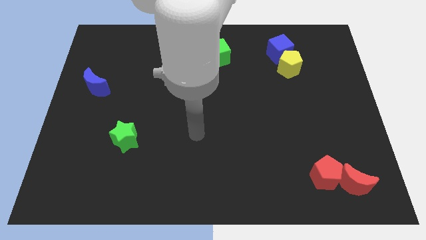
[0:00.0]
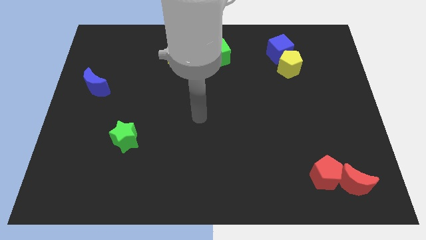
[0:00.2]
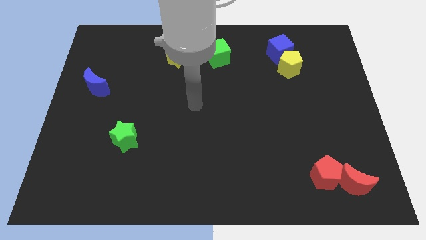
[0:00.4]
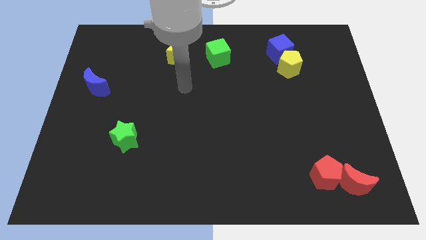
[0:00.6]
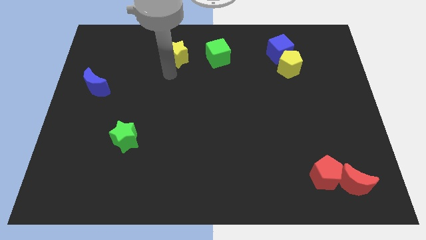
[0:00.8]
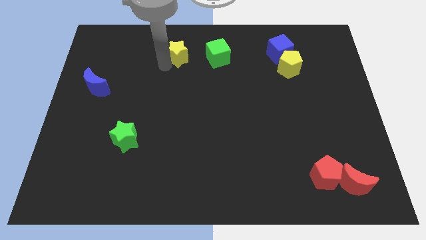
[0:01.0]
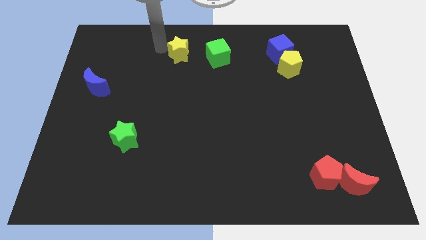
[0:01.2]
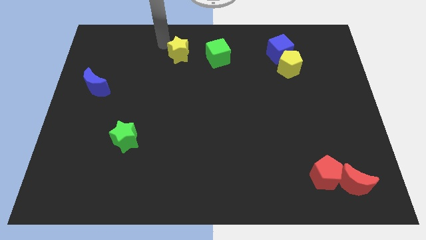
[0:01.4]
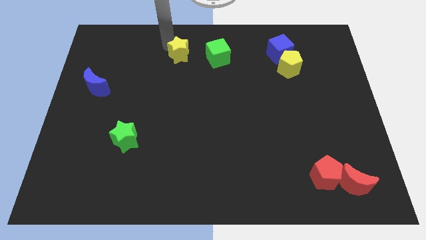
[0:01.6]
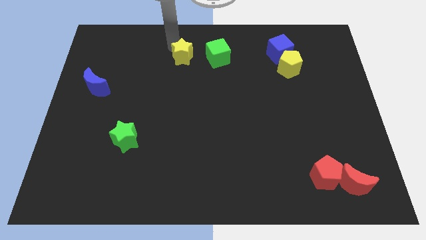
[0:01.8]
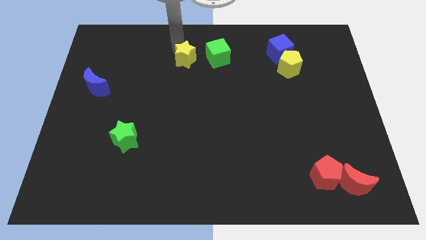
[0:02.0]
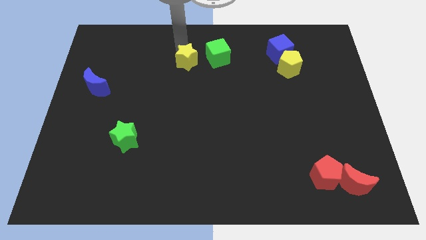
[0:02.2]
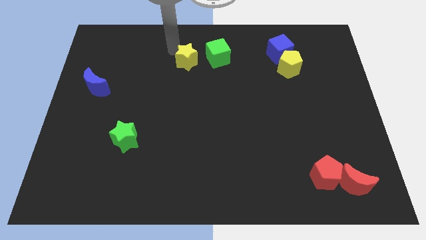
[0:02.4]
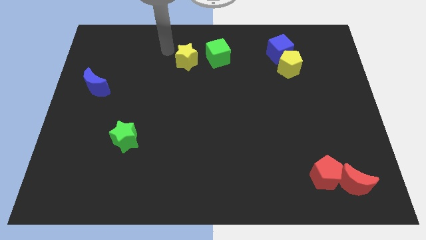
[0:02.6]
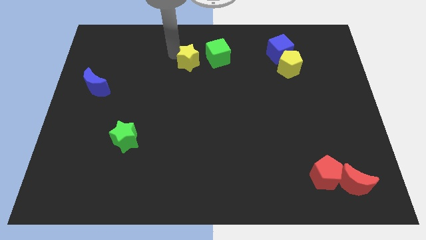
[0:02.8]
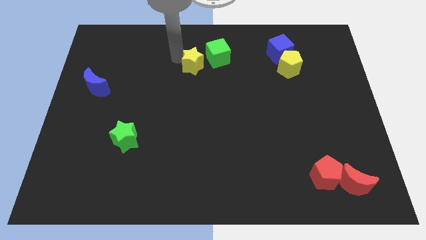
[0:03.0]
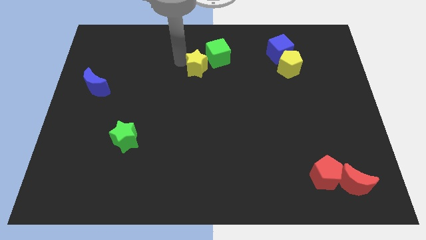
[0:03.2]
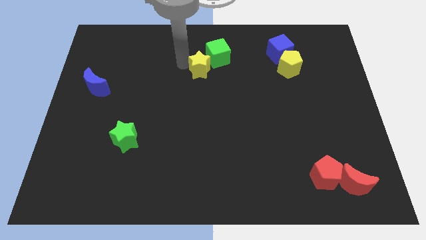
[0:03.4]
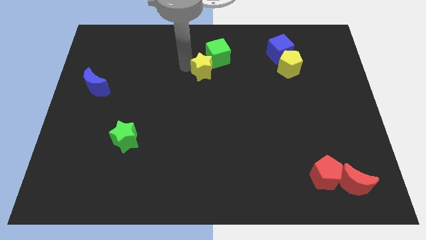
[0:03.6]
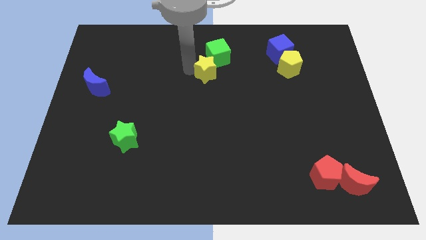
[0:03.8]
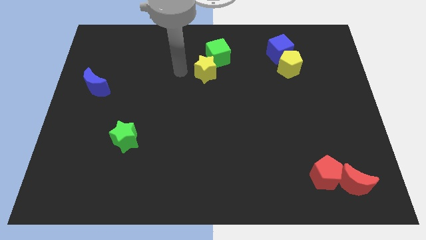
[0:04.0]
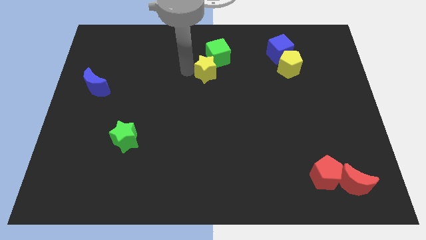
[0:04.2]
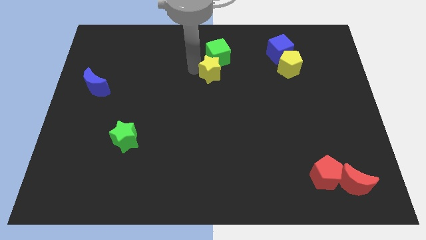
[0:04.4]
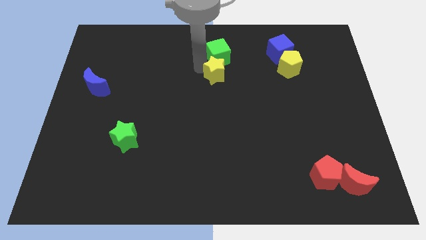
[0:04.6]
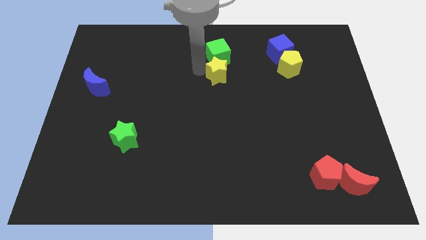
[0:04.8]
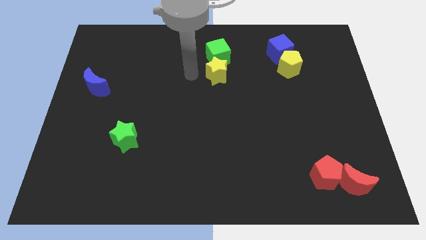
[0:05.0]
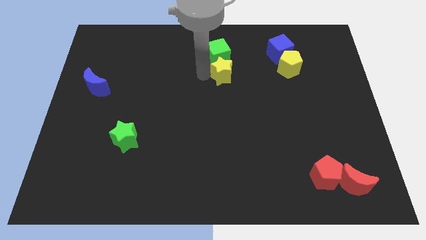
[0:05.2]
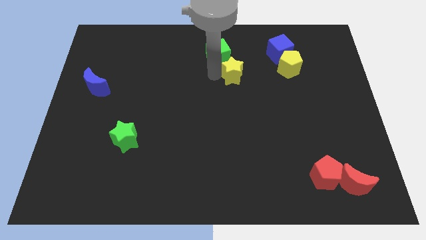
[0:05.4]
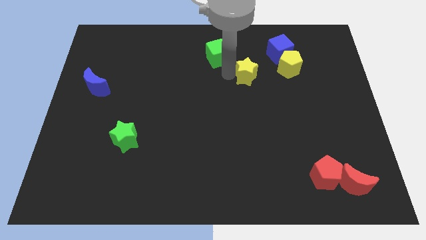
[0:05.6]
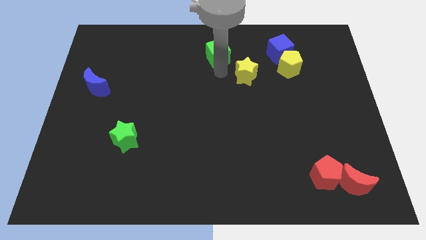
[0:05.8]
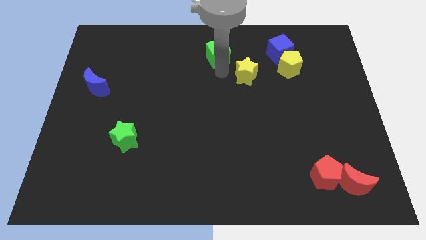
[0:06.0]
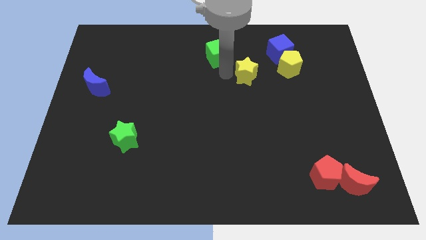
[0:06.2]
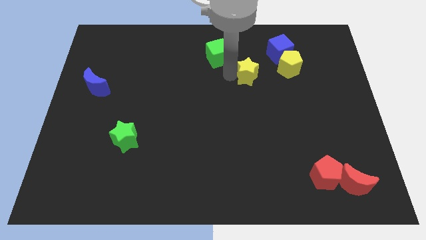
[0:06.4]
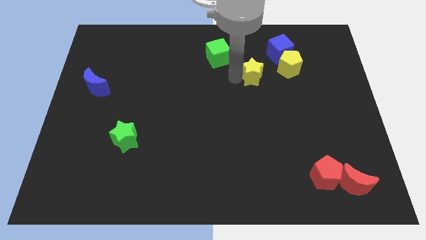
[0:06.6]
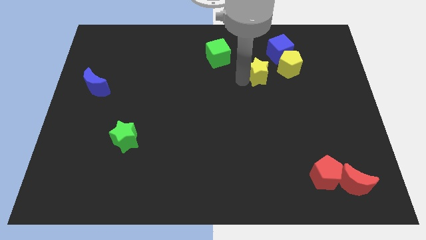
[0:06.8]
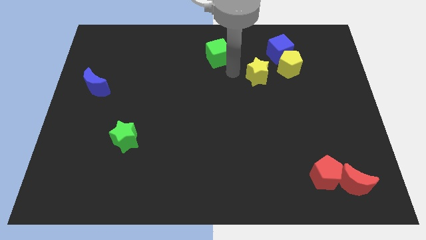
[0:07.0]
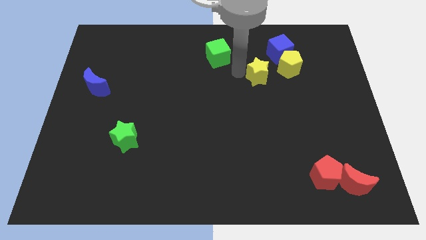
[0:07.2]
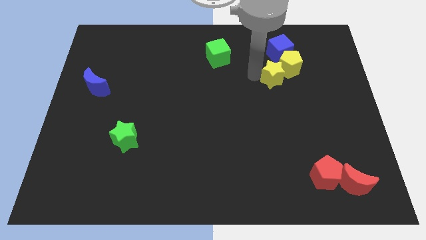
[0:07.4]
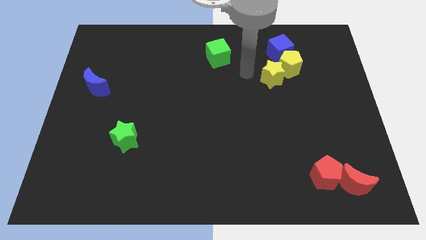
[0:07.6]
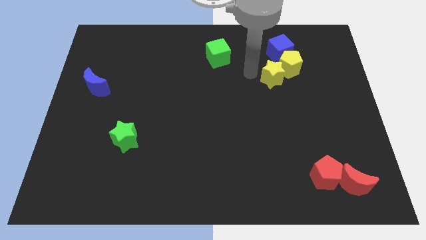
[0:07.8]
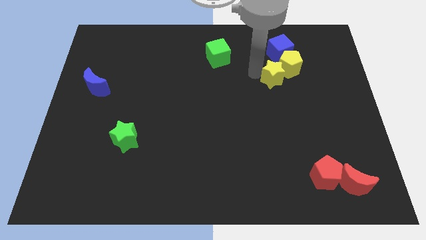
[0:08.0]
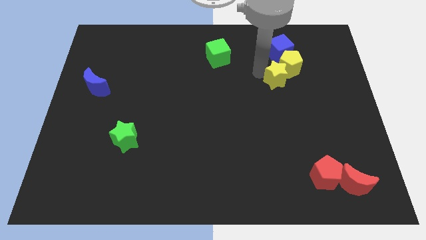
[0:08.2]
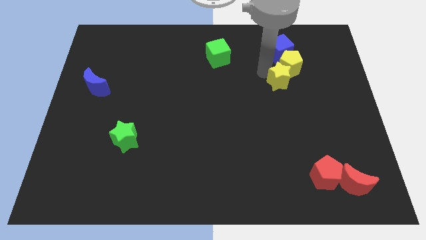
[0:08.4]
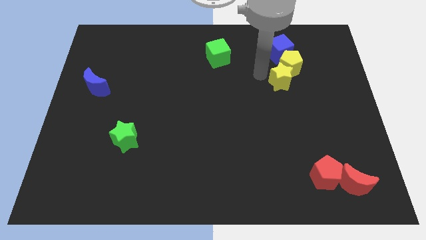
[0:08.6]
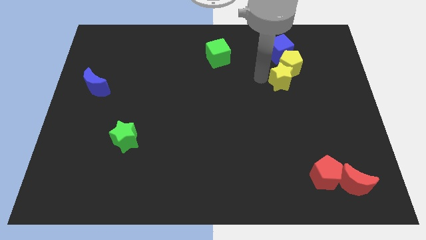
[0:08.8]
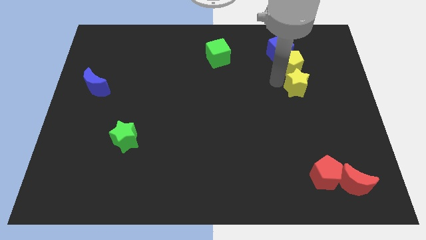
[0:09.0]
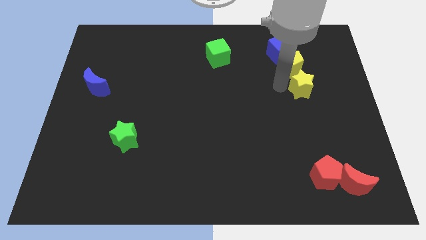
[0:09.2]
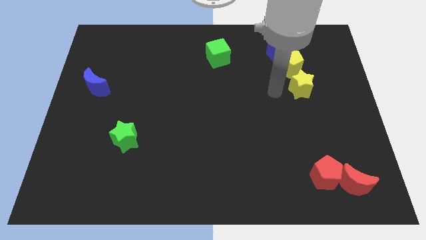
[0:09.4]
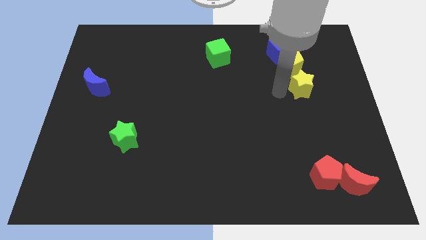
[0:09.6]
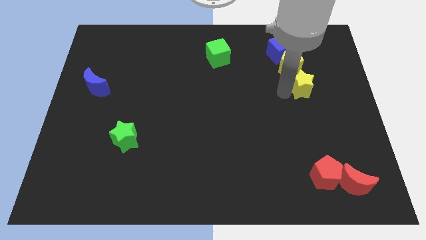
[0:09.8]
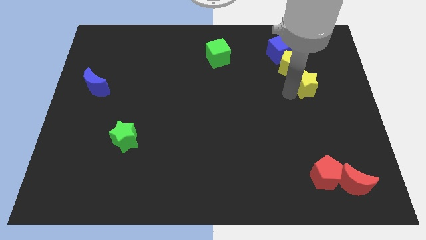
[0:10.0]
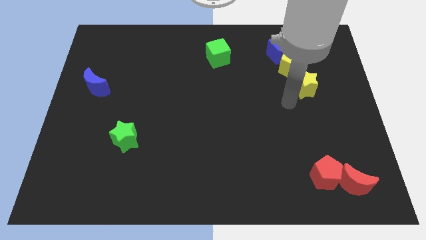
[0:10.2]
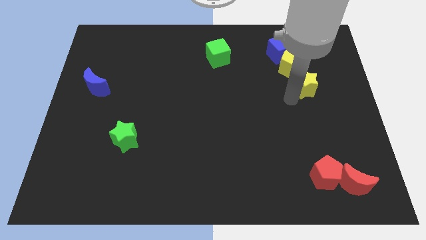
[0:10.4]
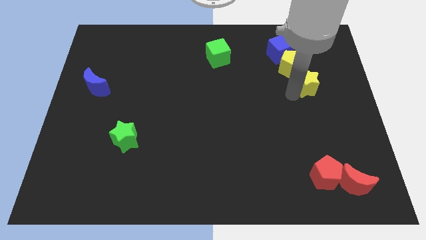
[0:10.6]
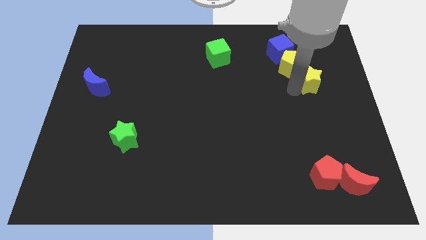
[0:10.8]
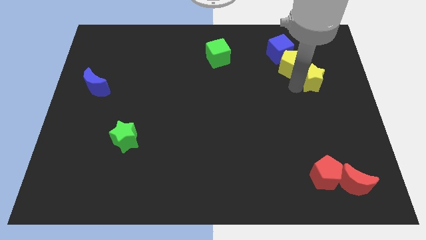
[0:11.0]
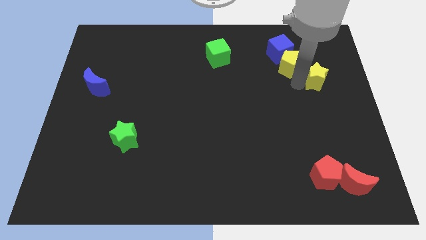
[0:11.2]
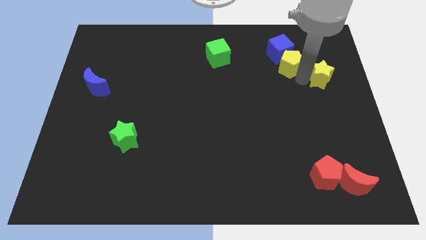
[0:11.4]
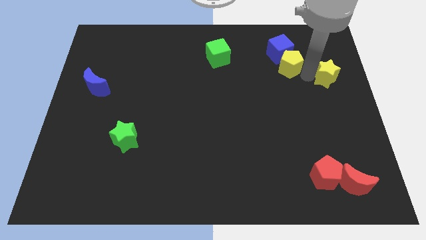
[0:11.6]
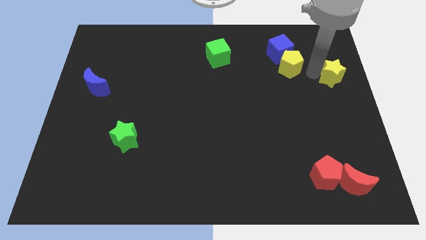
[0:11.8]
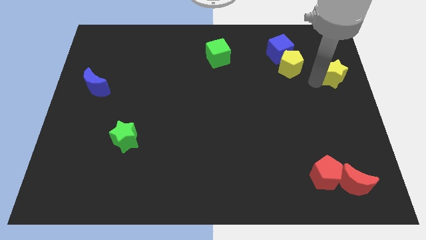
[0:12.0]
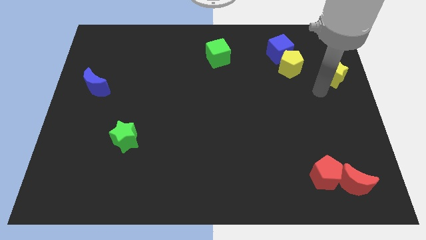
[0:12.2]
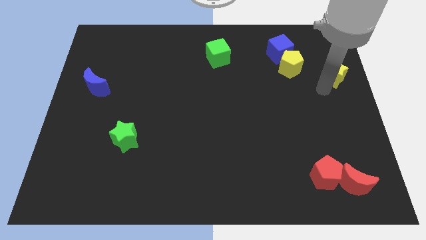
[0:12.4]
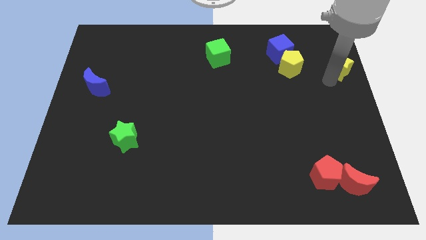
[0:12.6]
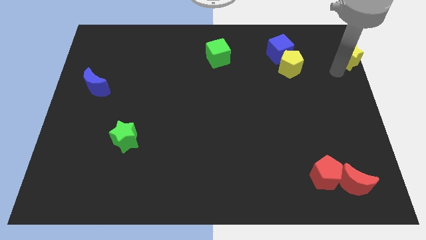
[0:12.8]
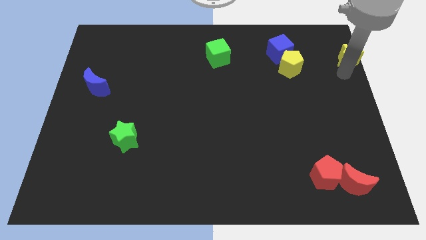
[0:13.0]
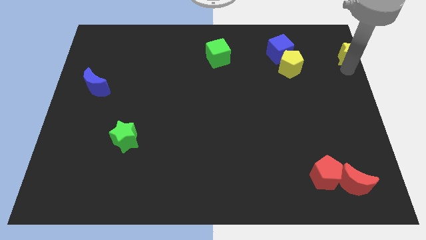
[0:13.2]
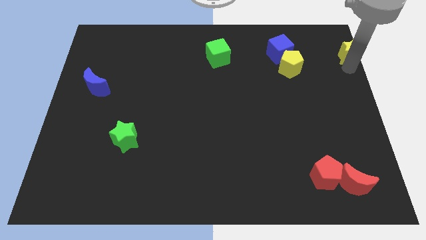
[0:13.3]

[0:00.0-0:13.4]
move the yellow star to the top right corner
